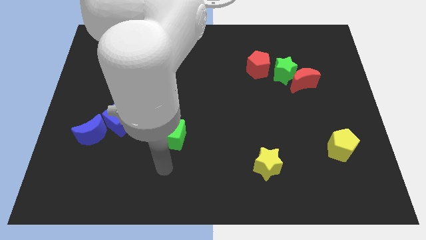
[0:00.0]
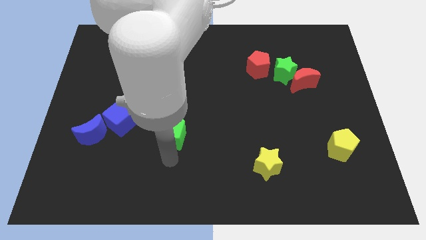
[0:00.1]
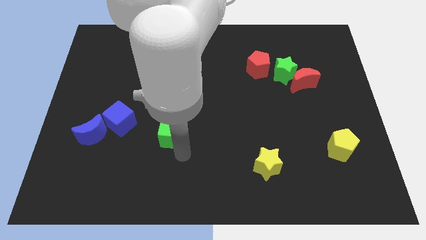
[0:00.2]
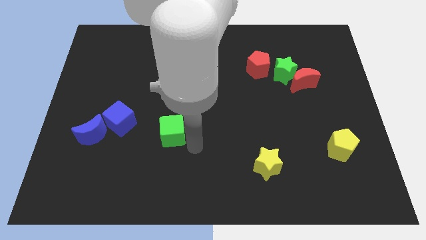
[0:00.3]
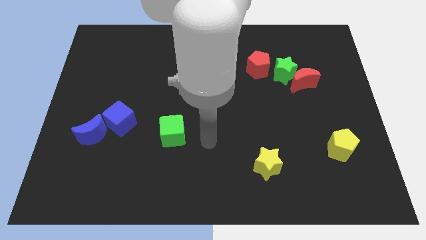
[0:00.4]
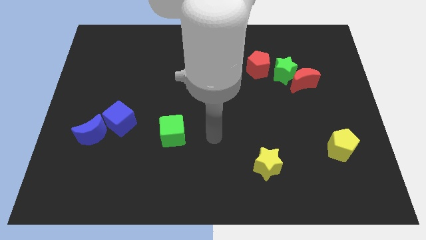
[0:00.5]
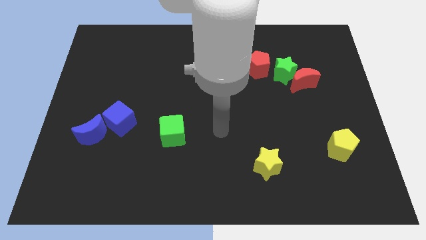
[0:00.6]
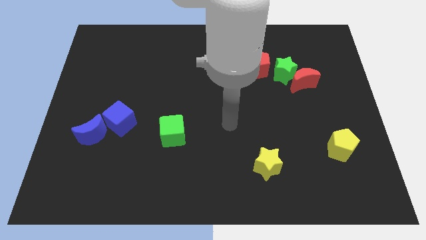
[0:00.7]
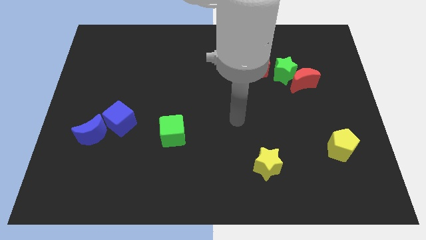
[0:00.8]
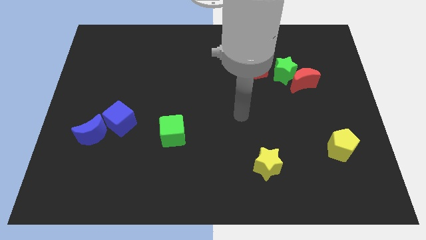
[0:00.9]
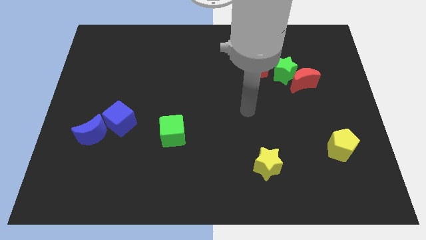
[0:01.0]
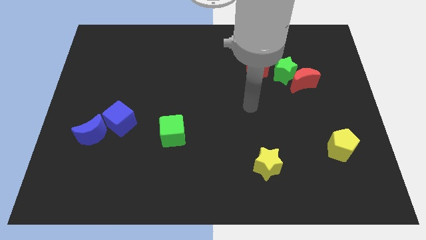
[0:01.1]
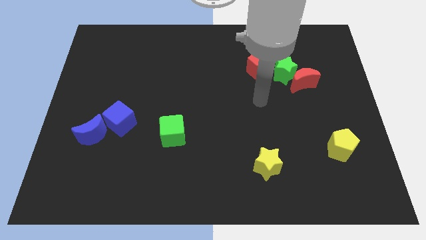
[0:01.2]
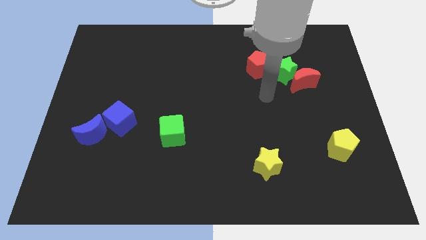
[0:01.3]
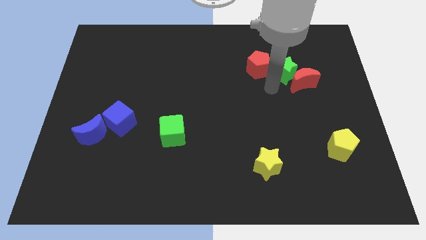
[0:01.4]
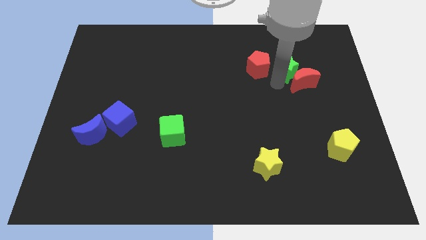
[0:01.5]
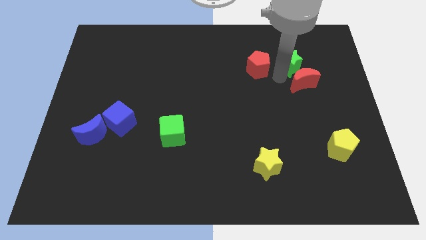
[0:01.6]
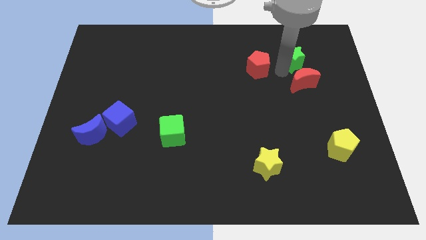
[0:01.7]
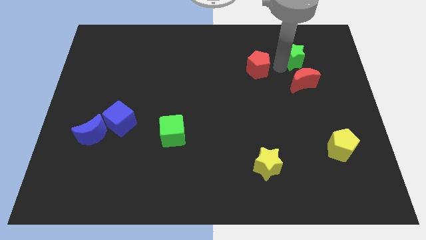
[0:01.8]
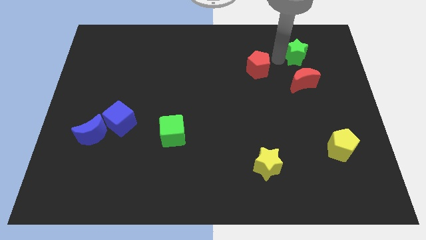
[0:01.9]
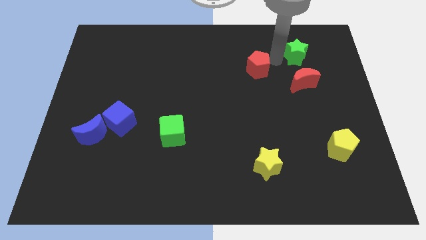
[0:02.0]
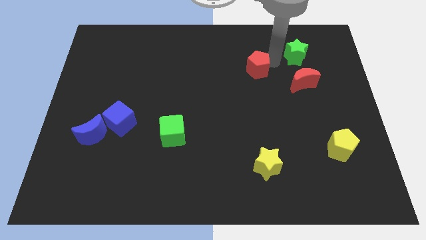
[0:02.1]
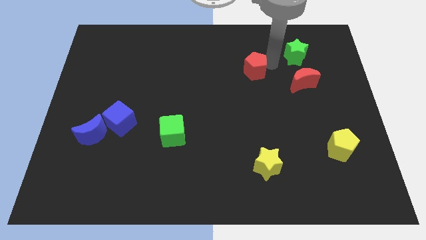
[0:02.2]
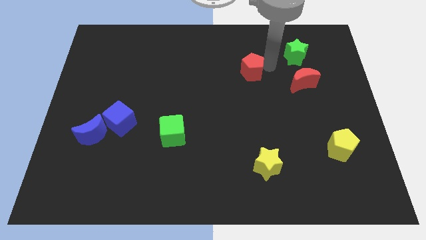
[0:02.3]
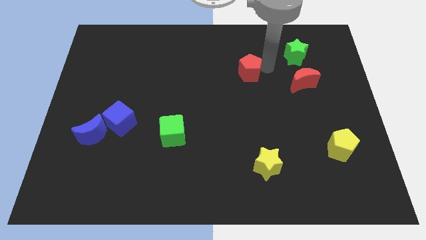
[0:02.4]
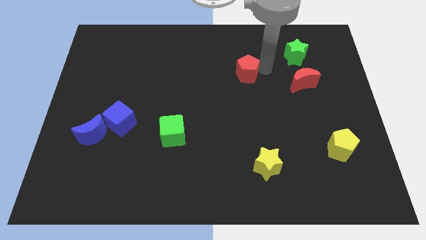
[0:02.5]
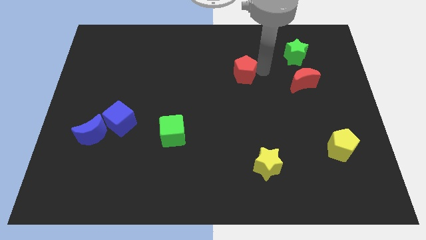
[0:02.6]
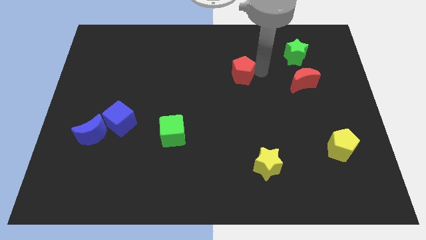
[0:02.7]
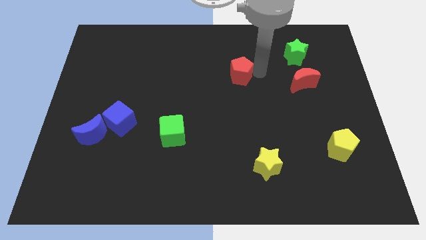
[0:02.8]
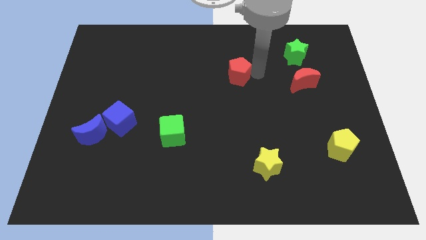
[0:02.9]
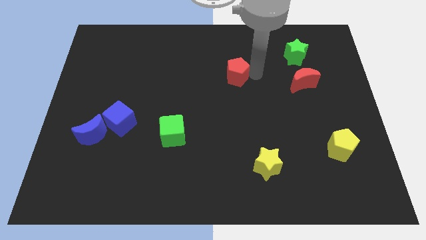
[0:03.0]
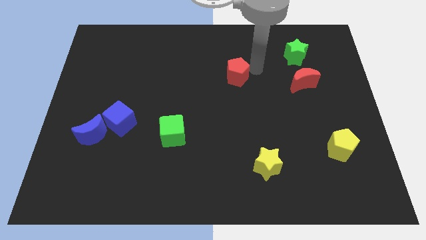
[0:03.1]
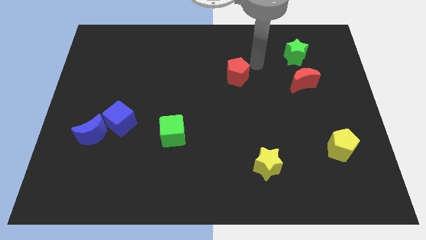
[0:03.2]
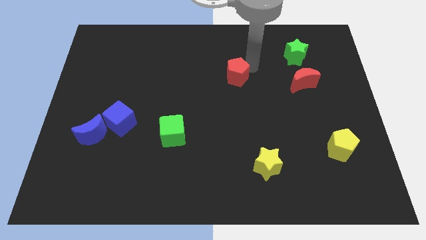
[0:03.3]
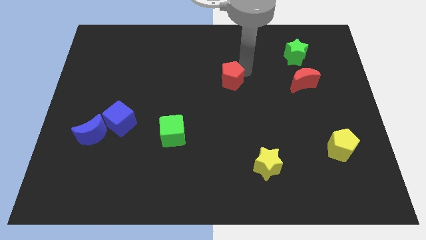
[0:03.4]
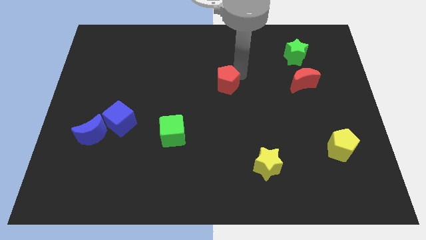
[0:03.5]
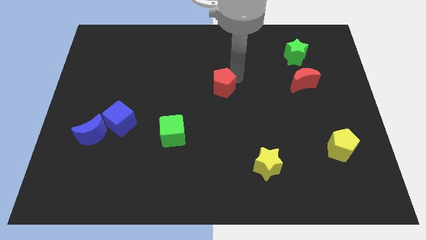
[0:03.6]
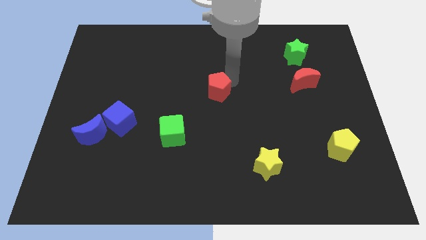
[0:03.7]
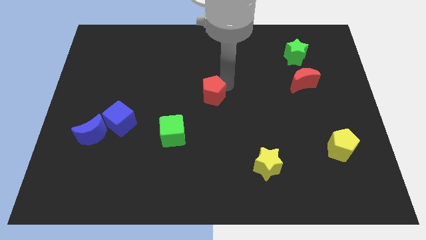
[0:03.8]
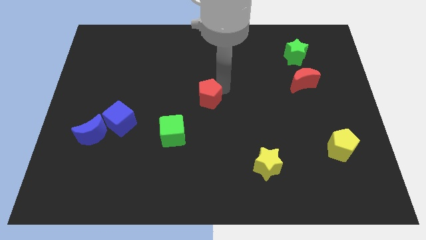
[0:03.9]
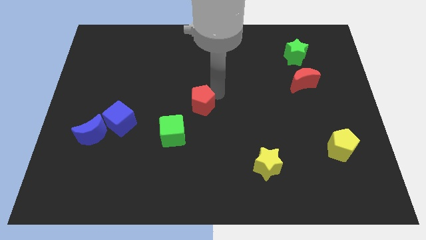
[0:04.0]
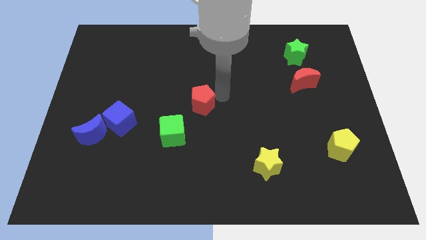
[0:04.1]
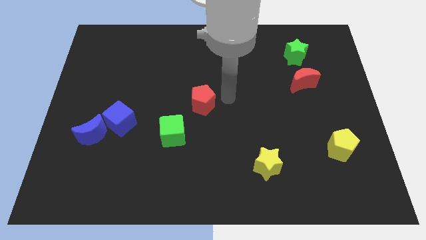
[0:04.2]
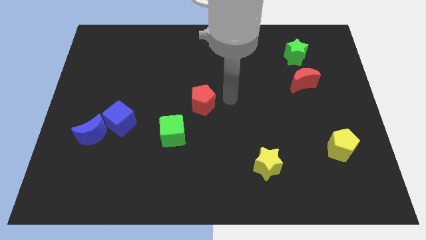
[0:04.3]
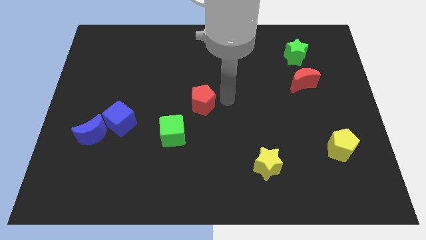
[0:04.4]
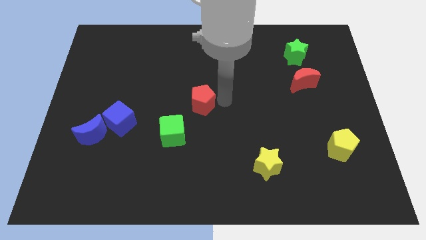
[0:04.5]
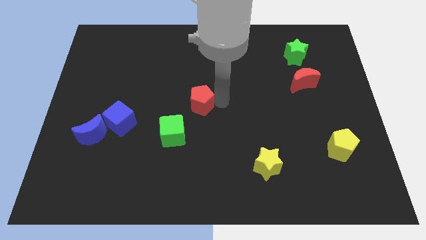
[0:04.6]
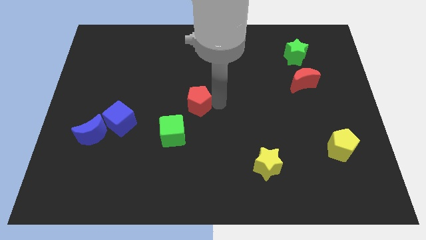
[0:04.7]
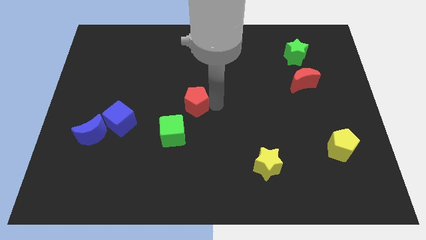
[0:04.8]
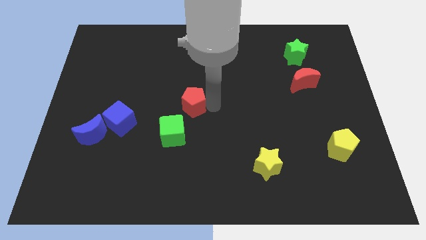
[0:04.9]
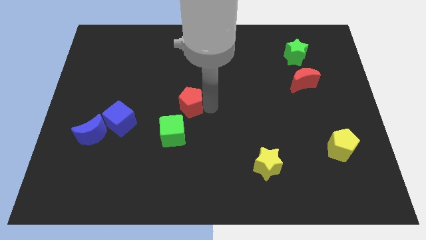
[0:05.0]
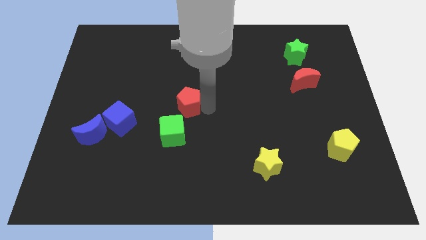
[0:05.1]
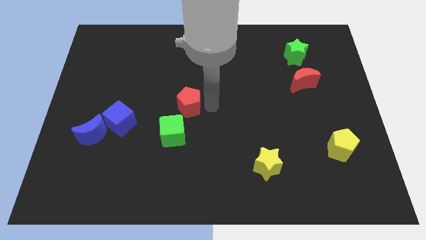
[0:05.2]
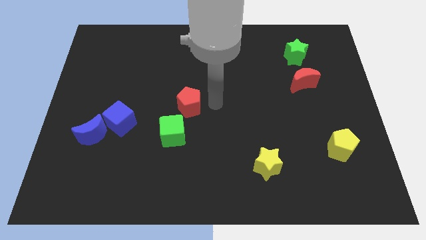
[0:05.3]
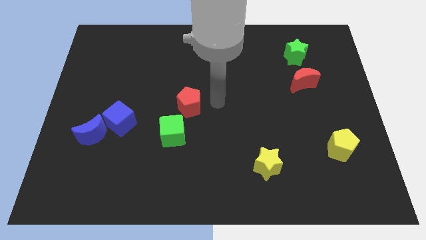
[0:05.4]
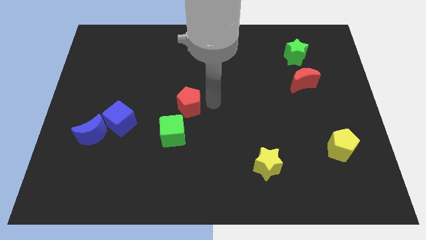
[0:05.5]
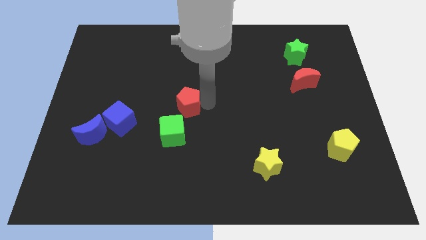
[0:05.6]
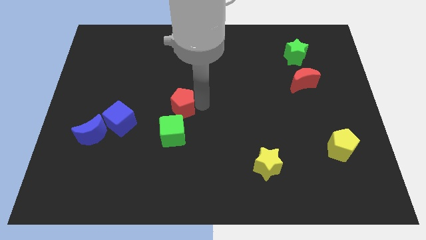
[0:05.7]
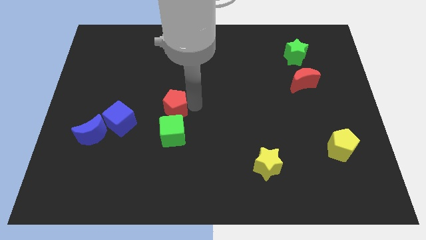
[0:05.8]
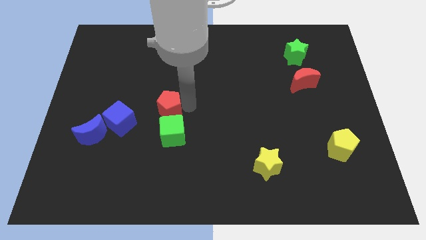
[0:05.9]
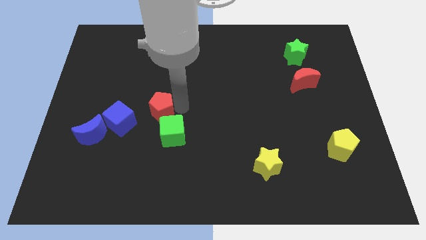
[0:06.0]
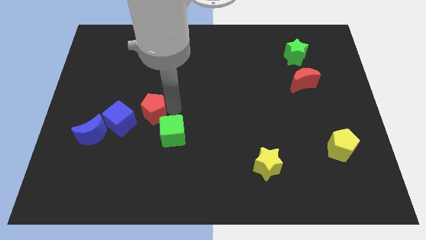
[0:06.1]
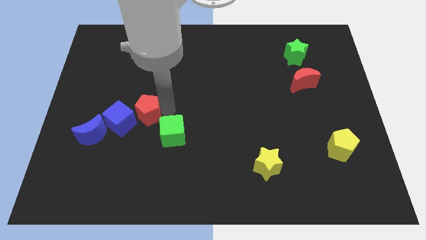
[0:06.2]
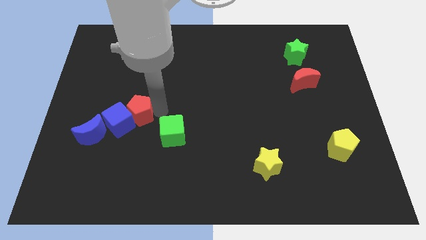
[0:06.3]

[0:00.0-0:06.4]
put the red pentagon to the blue cube
